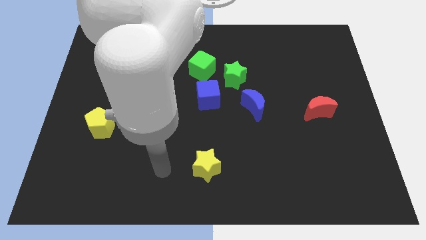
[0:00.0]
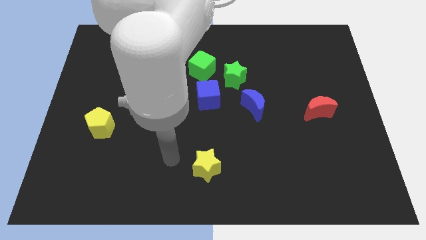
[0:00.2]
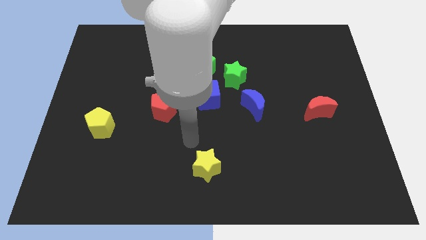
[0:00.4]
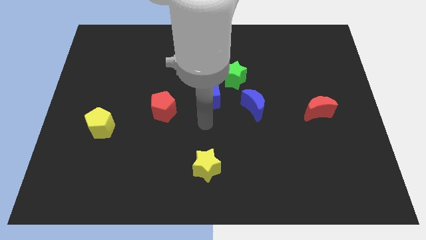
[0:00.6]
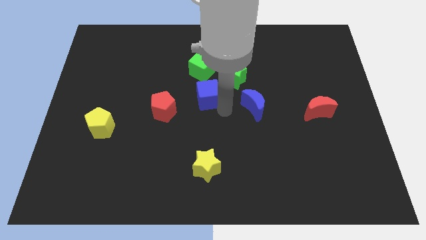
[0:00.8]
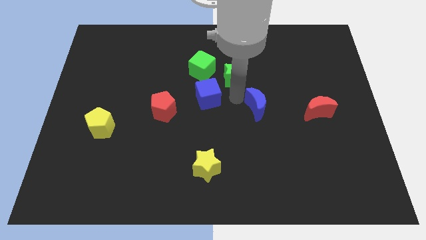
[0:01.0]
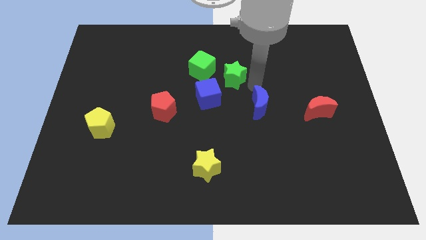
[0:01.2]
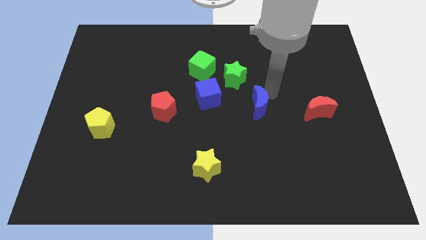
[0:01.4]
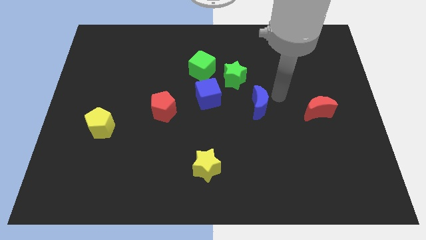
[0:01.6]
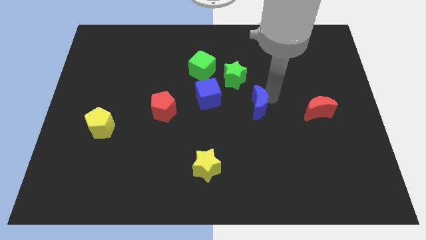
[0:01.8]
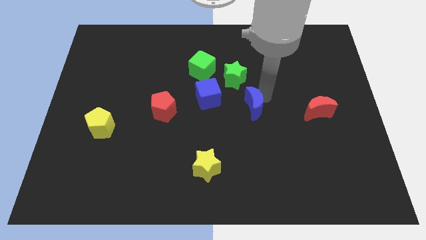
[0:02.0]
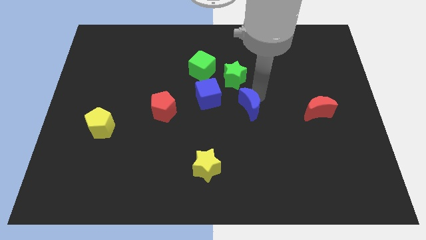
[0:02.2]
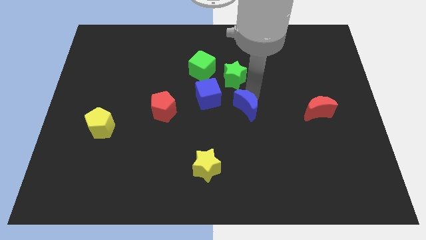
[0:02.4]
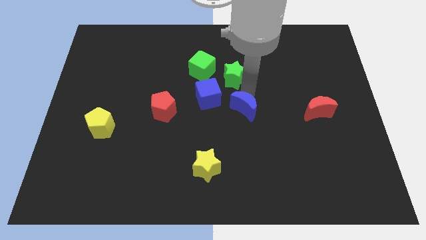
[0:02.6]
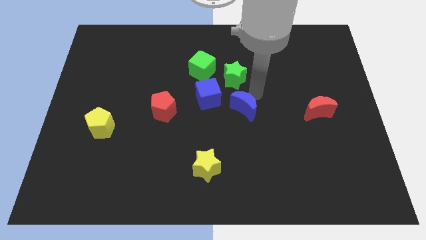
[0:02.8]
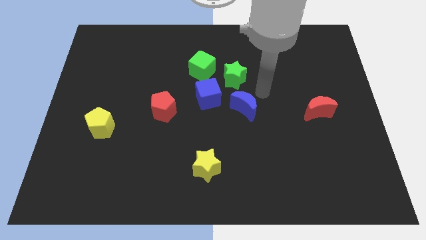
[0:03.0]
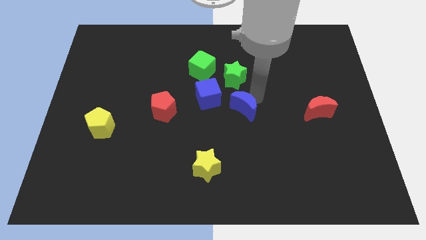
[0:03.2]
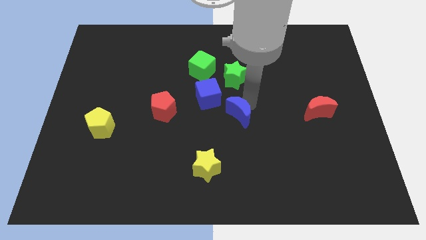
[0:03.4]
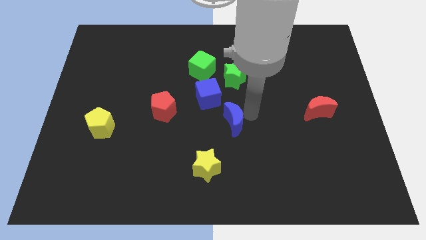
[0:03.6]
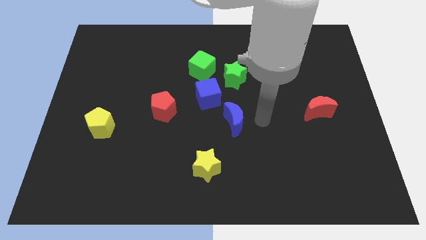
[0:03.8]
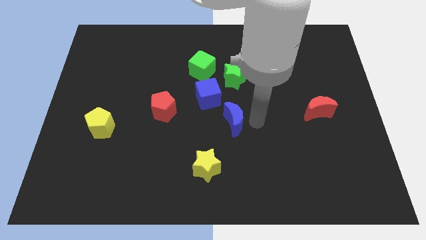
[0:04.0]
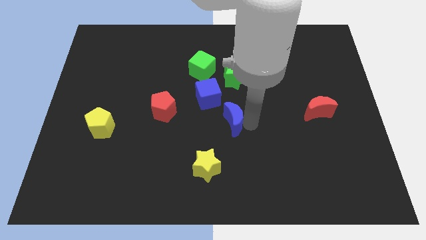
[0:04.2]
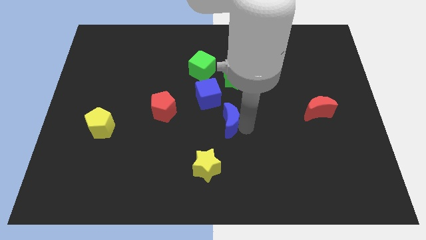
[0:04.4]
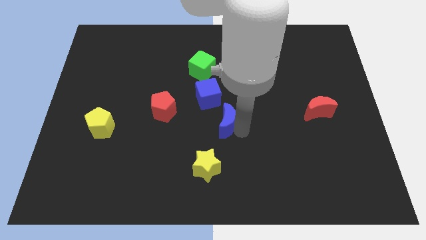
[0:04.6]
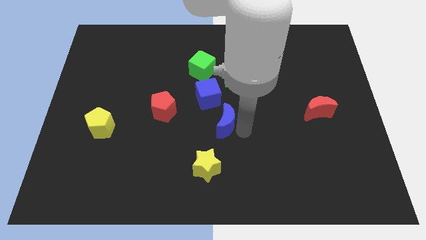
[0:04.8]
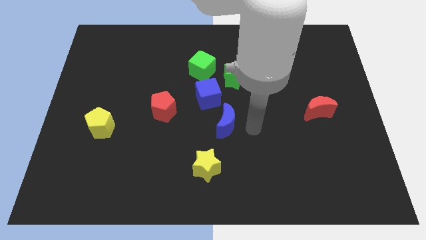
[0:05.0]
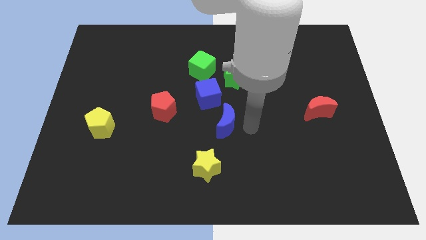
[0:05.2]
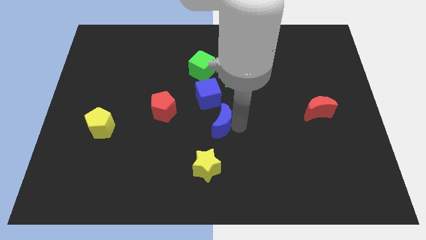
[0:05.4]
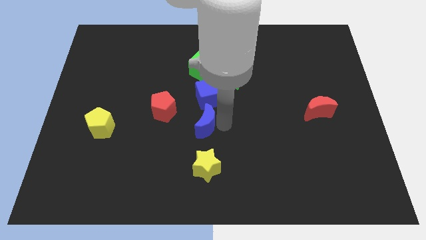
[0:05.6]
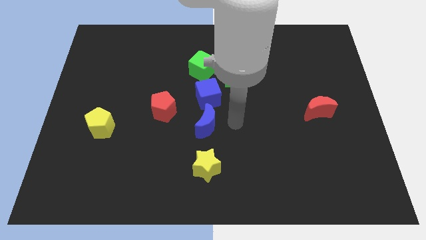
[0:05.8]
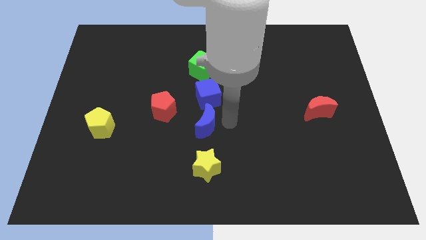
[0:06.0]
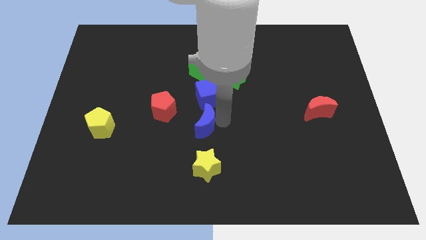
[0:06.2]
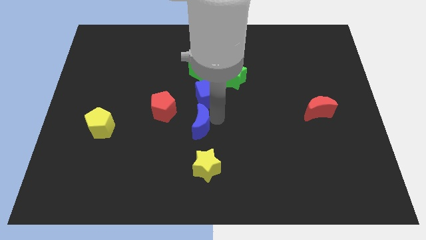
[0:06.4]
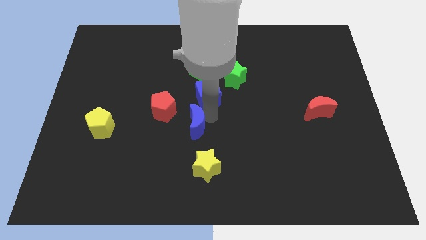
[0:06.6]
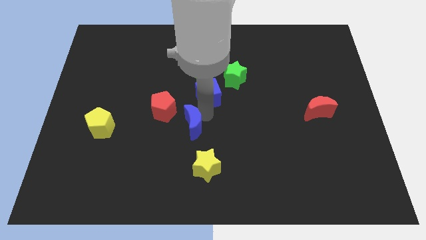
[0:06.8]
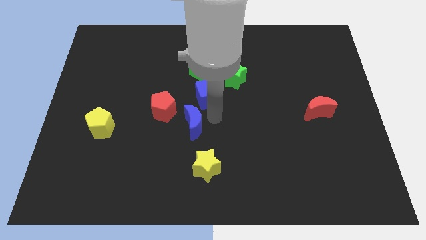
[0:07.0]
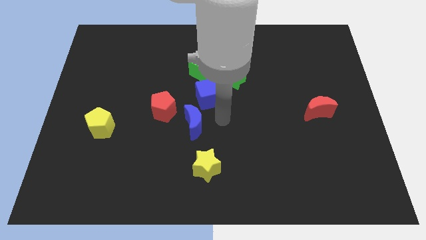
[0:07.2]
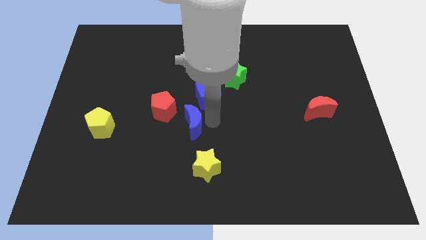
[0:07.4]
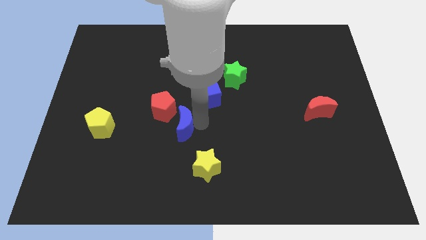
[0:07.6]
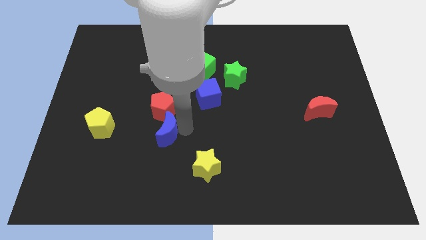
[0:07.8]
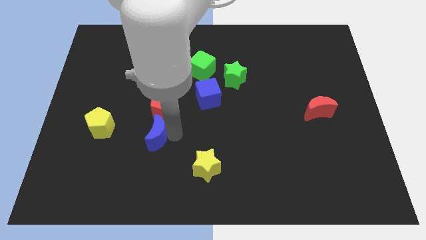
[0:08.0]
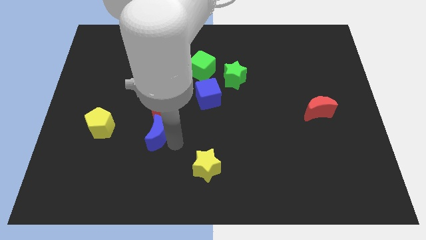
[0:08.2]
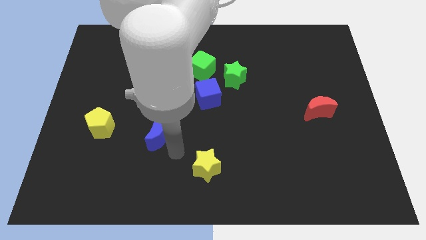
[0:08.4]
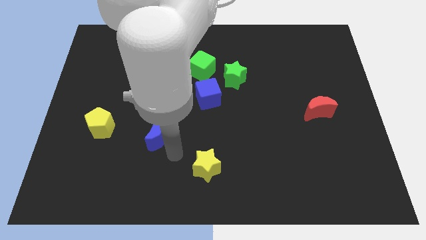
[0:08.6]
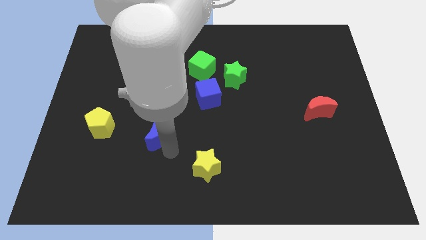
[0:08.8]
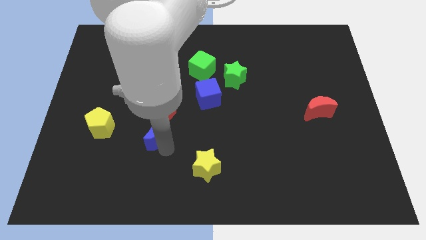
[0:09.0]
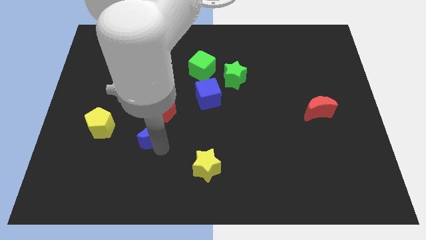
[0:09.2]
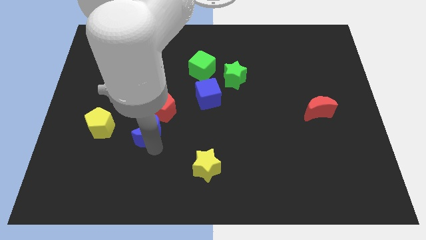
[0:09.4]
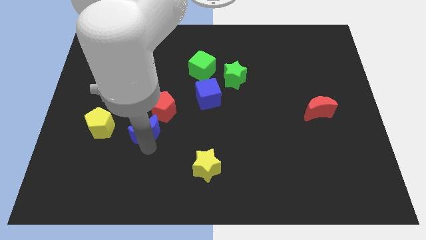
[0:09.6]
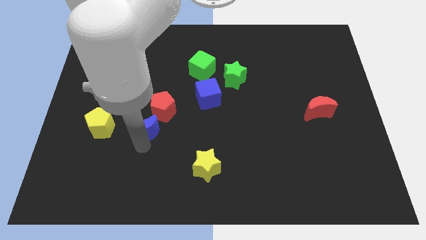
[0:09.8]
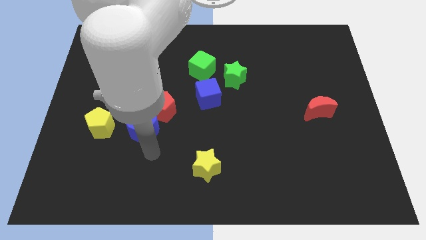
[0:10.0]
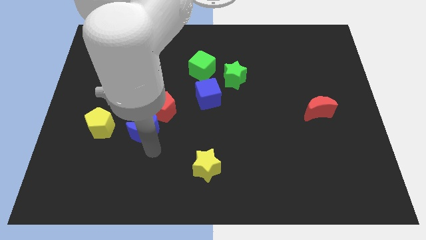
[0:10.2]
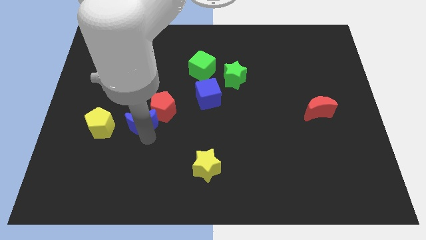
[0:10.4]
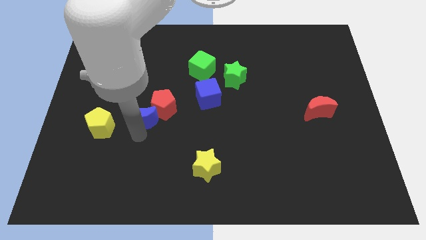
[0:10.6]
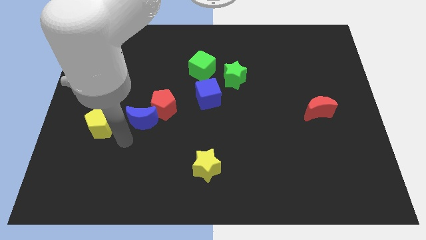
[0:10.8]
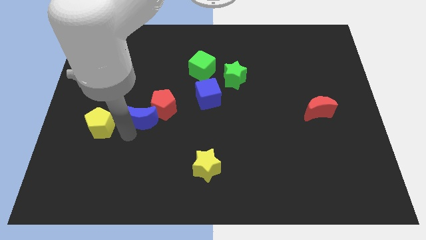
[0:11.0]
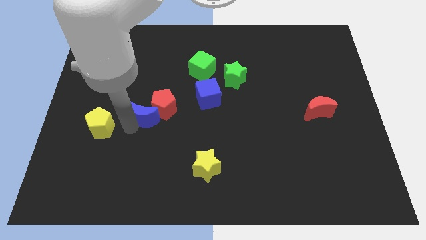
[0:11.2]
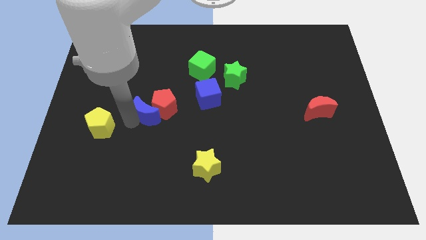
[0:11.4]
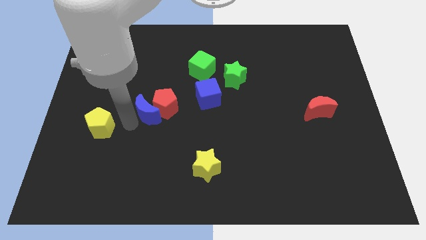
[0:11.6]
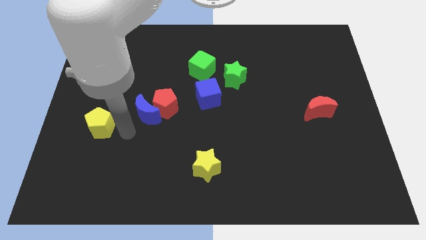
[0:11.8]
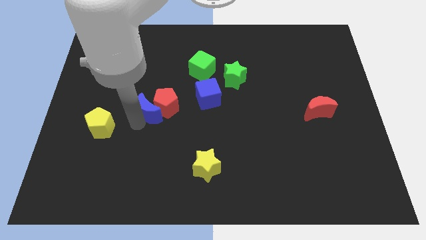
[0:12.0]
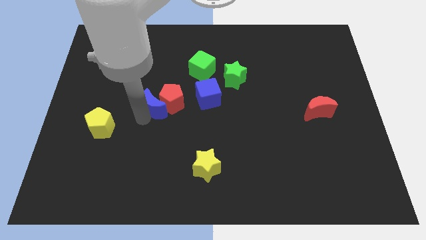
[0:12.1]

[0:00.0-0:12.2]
slide the blue moon just left of the blue cube

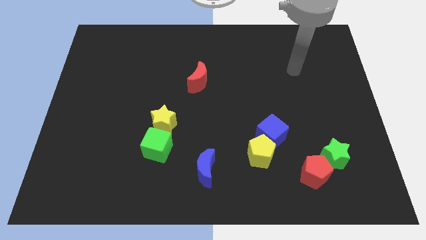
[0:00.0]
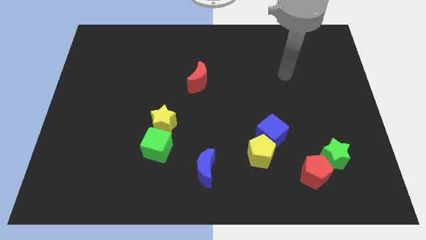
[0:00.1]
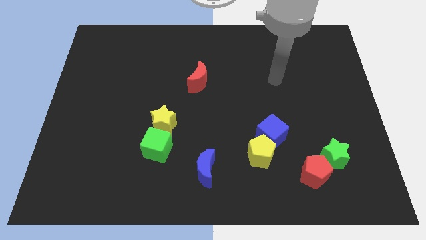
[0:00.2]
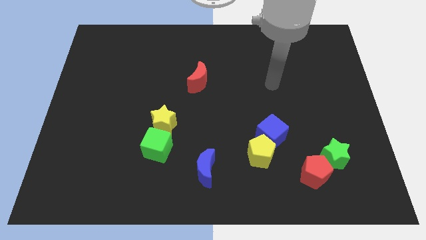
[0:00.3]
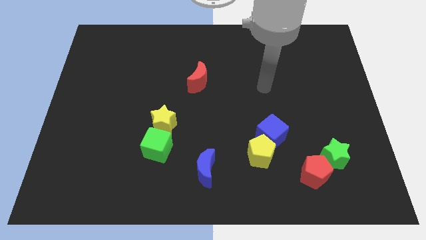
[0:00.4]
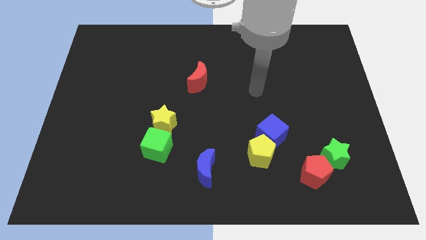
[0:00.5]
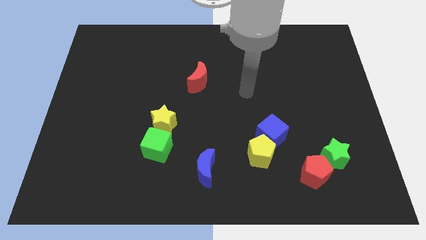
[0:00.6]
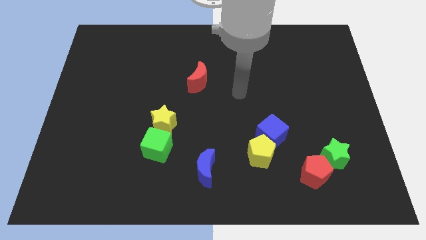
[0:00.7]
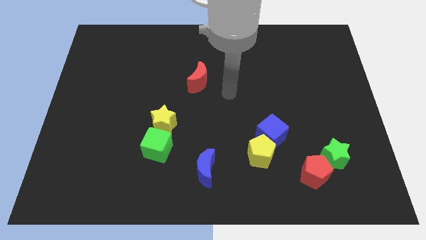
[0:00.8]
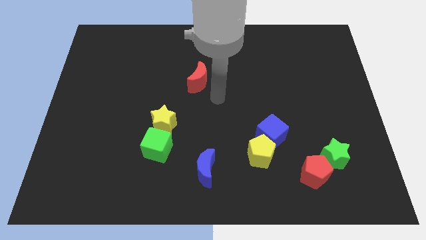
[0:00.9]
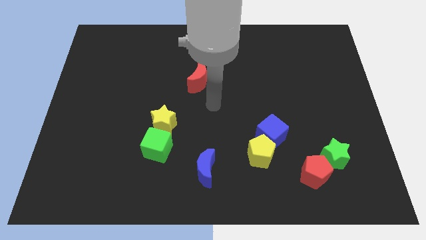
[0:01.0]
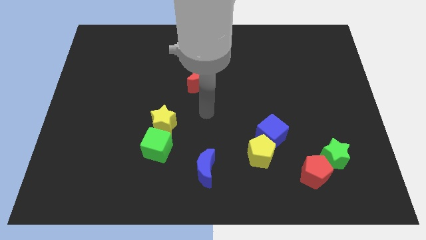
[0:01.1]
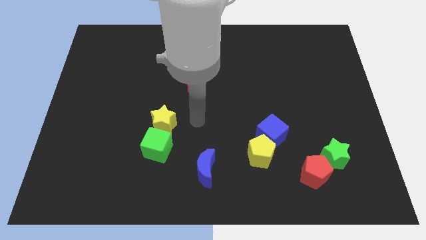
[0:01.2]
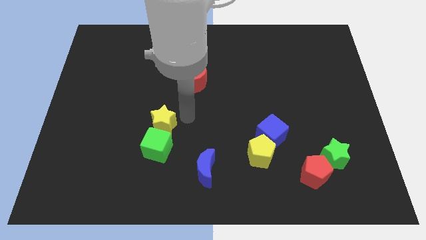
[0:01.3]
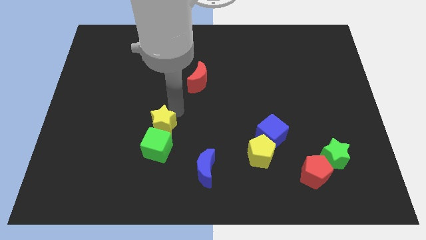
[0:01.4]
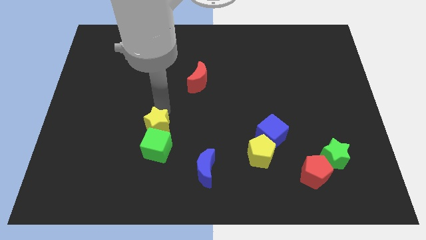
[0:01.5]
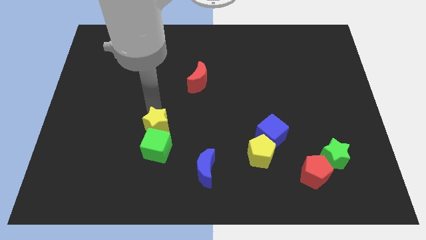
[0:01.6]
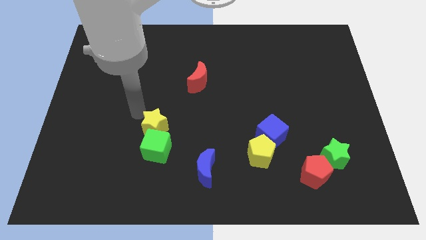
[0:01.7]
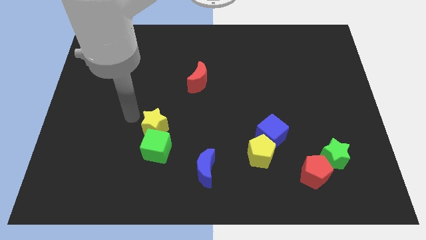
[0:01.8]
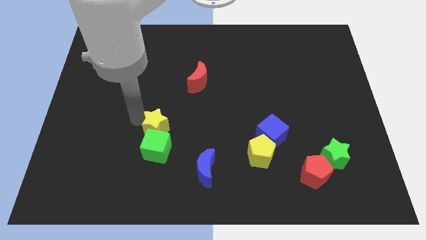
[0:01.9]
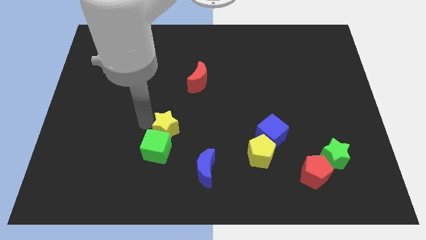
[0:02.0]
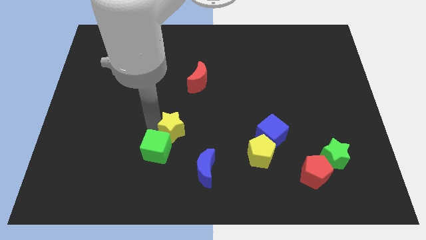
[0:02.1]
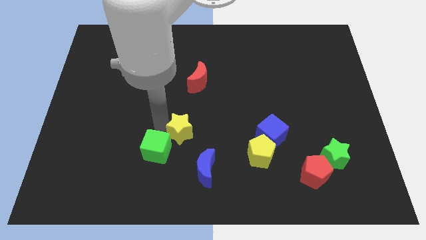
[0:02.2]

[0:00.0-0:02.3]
put the yellow star to the right of the green cube
